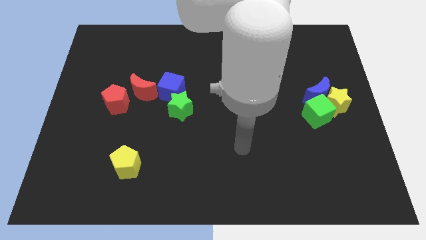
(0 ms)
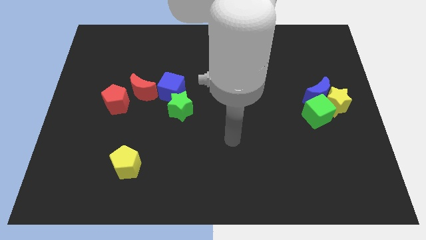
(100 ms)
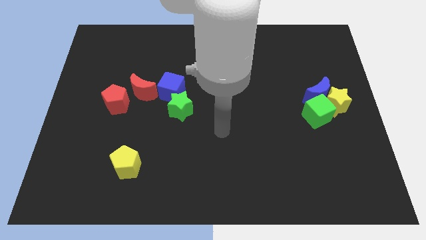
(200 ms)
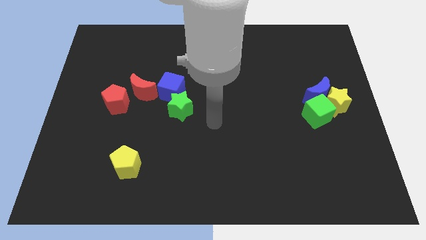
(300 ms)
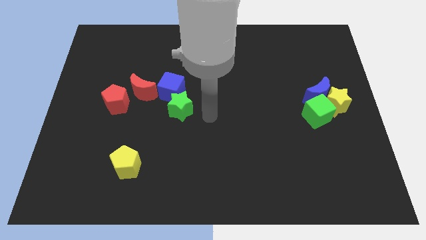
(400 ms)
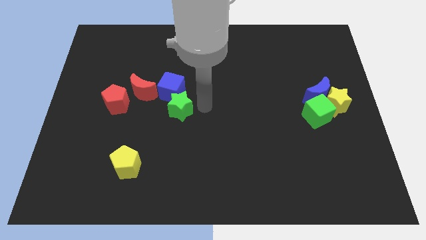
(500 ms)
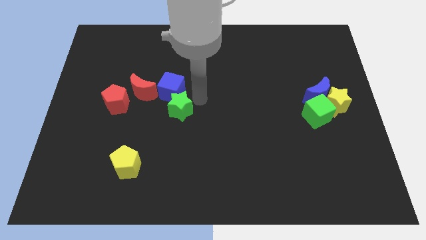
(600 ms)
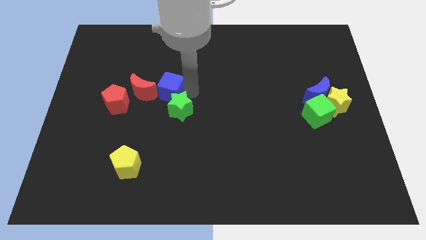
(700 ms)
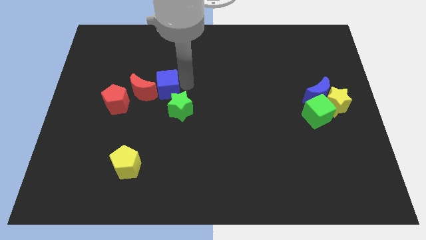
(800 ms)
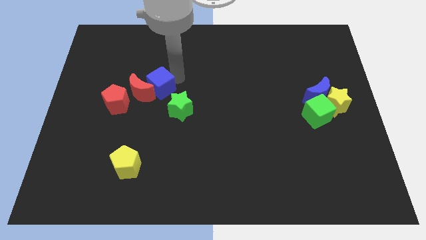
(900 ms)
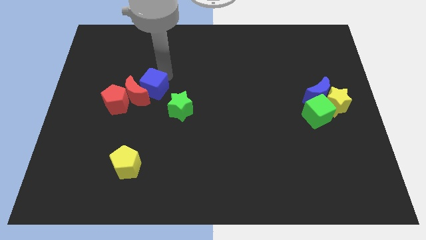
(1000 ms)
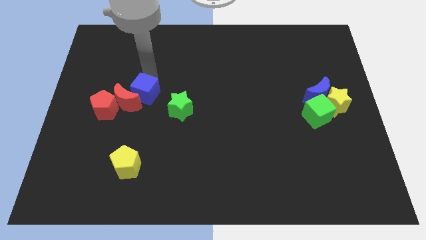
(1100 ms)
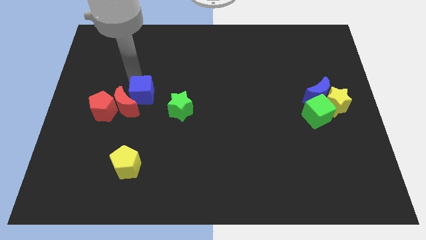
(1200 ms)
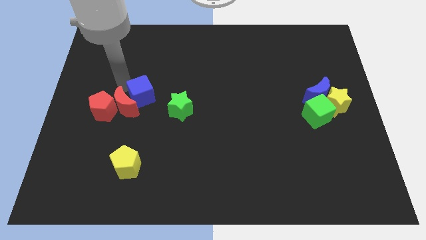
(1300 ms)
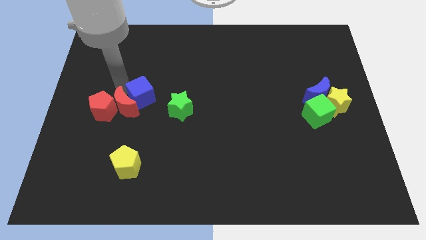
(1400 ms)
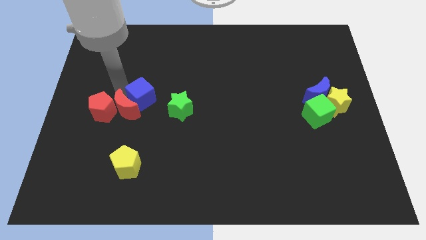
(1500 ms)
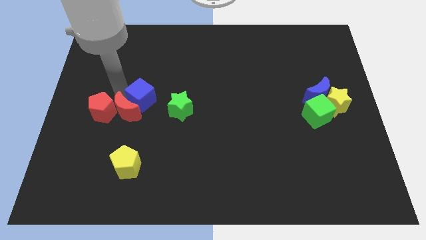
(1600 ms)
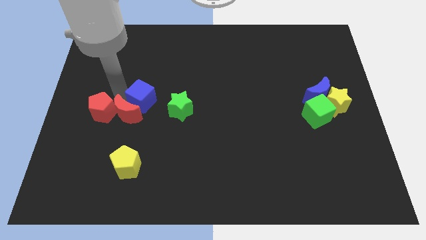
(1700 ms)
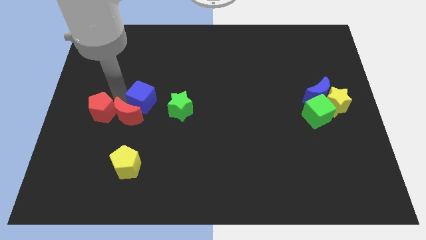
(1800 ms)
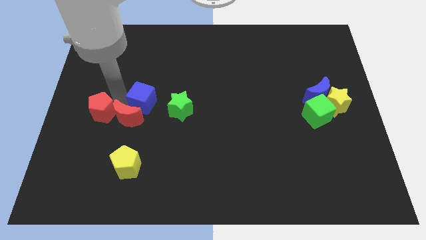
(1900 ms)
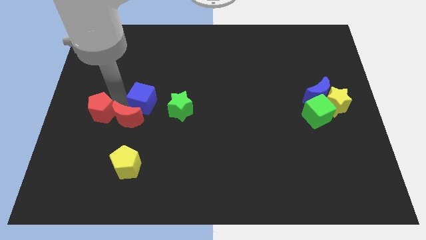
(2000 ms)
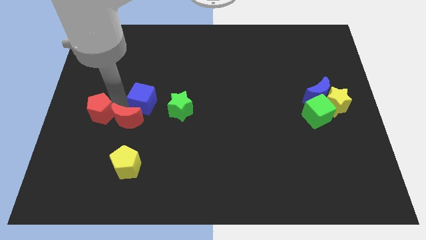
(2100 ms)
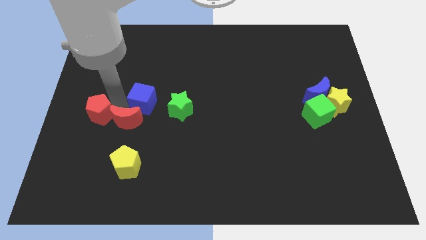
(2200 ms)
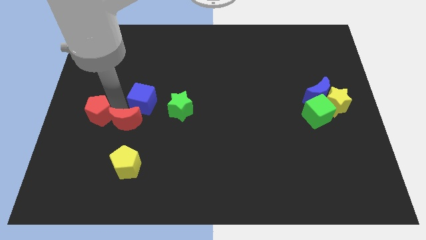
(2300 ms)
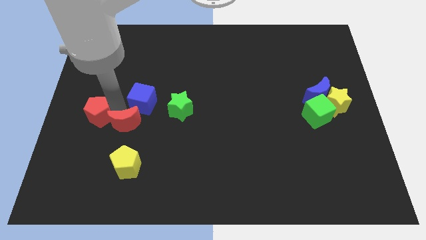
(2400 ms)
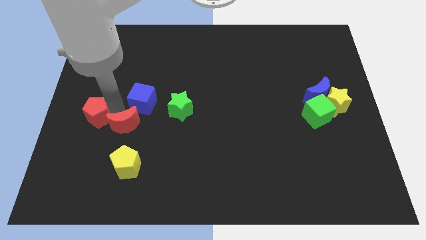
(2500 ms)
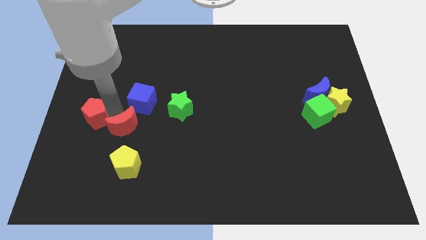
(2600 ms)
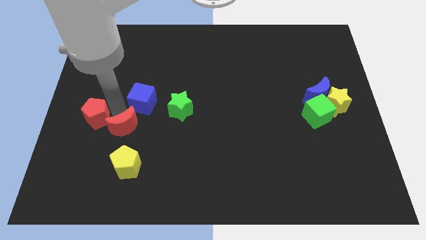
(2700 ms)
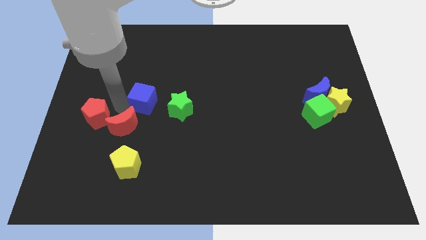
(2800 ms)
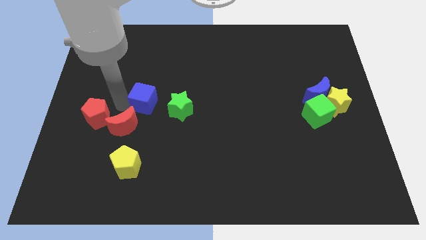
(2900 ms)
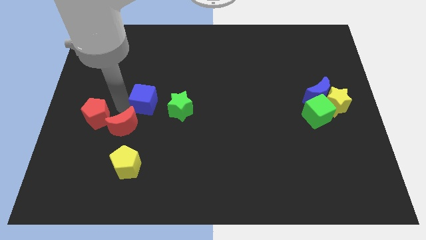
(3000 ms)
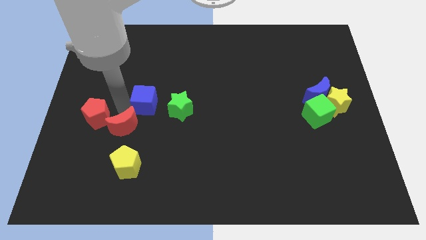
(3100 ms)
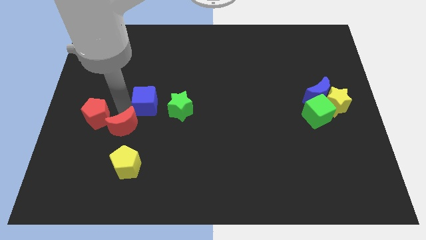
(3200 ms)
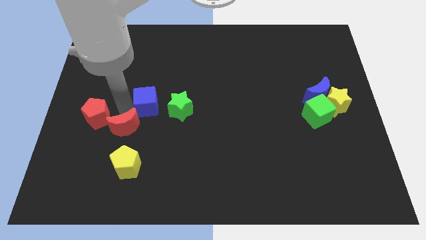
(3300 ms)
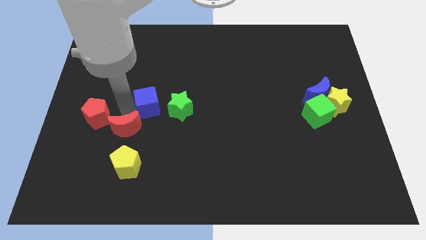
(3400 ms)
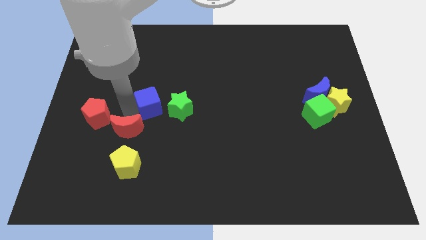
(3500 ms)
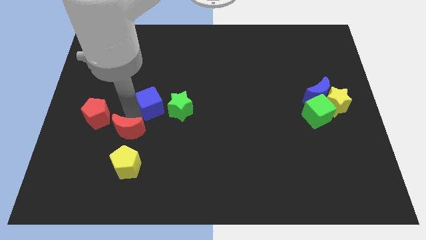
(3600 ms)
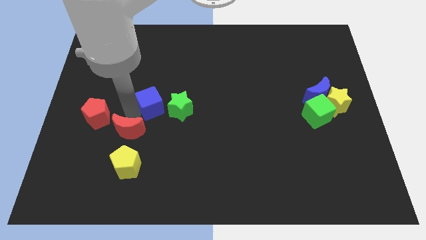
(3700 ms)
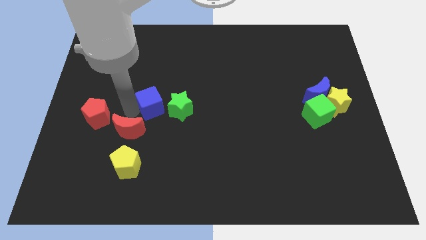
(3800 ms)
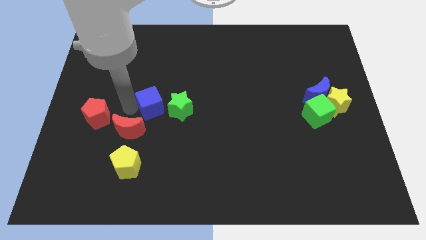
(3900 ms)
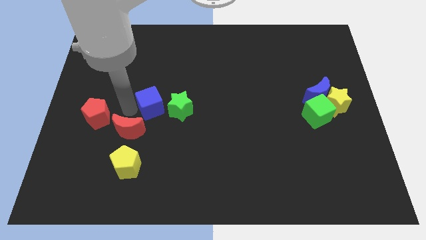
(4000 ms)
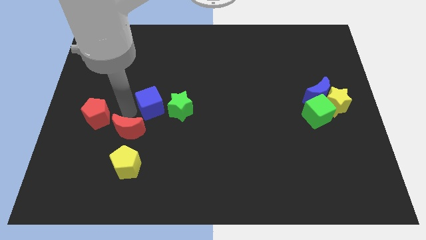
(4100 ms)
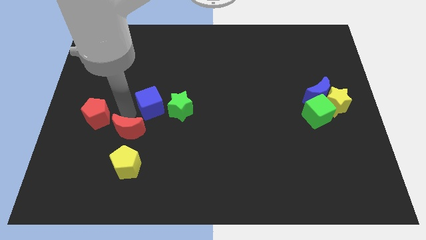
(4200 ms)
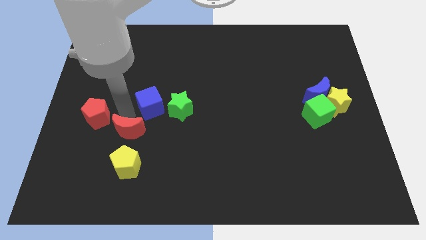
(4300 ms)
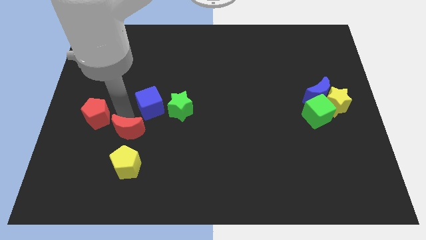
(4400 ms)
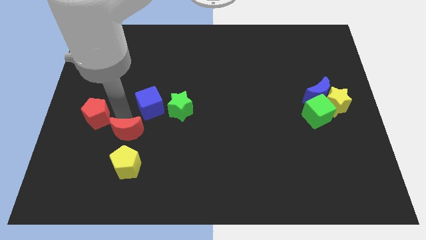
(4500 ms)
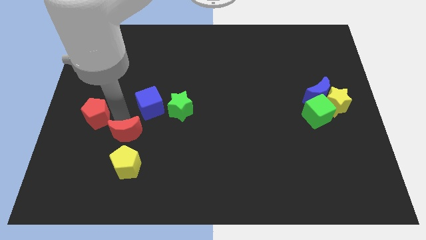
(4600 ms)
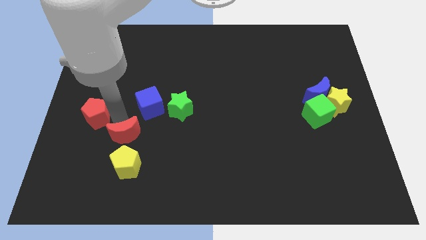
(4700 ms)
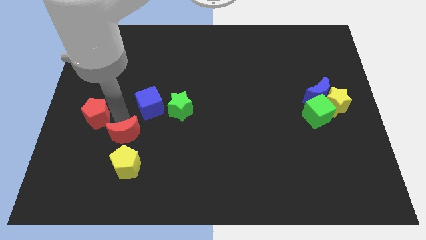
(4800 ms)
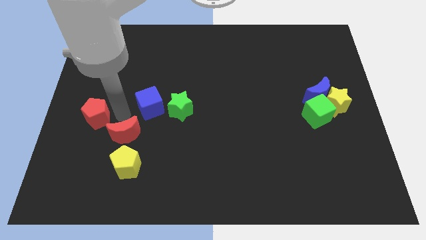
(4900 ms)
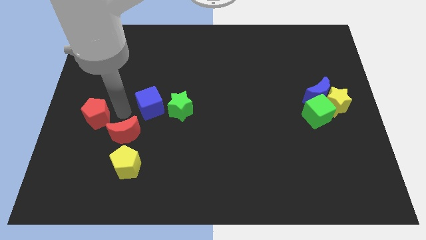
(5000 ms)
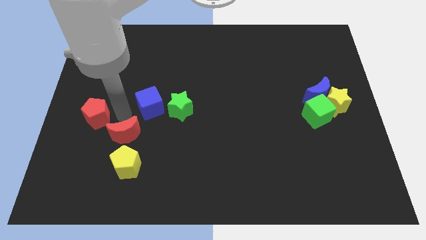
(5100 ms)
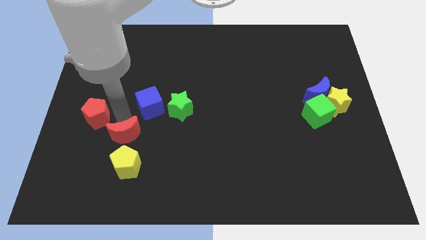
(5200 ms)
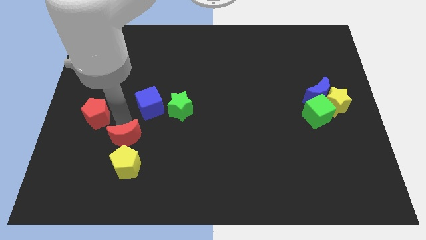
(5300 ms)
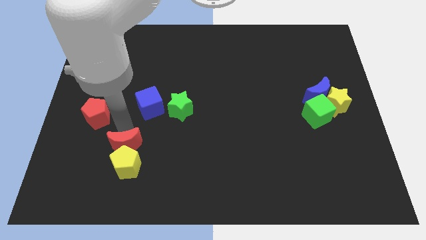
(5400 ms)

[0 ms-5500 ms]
push the red moon close to the yellow pentagon

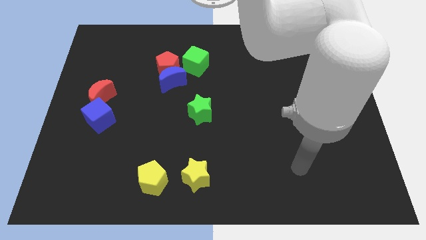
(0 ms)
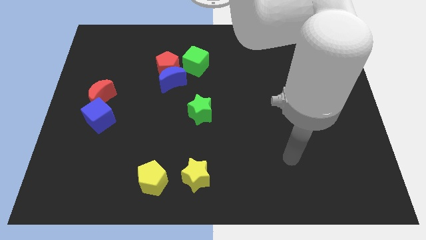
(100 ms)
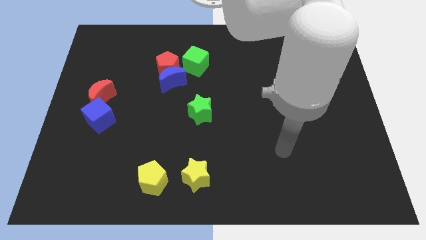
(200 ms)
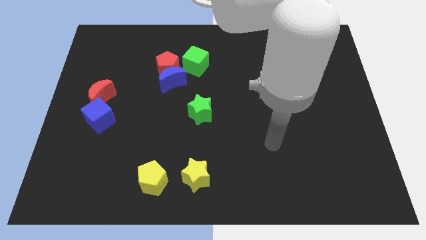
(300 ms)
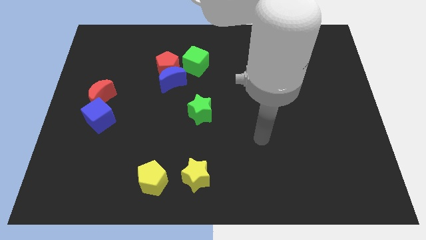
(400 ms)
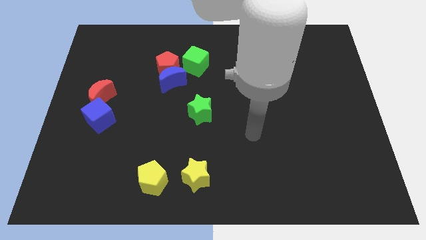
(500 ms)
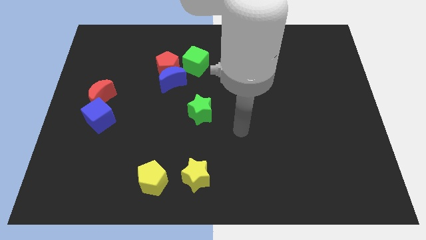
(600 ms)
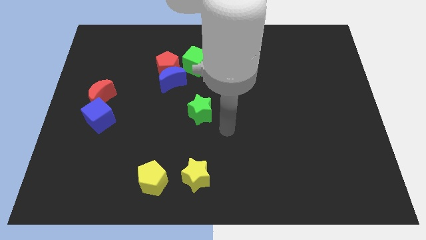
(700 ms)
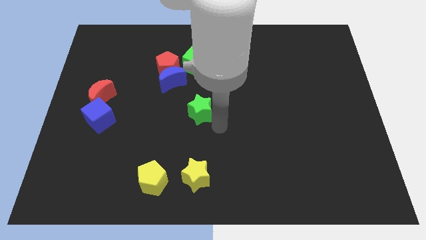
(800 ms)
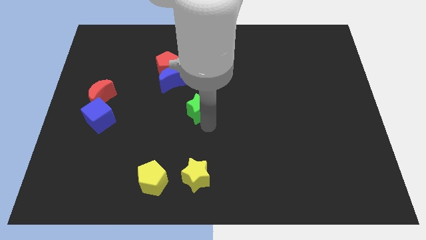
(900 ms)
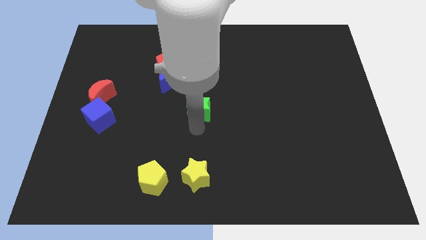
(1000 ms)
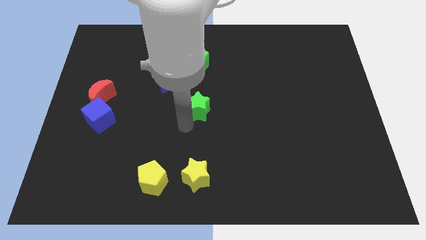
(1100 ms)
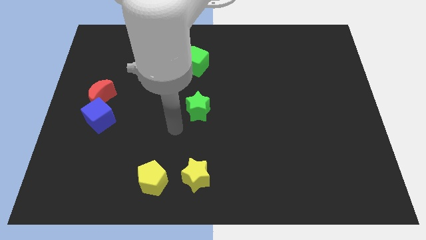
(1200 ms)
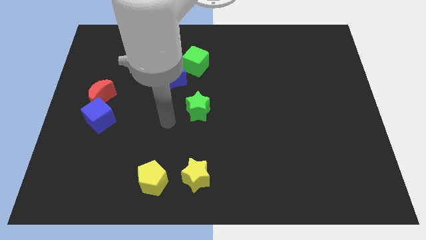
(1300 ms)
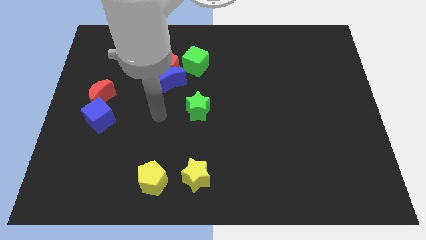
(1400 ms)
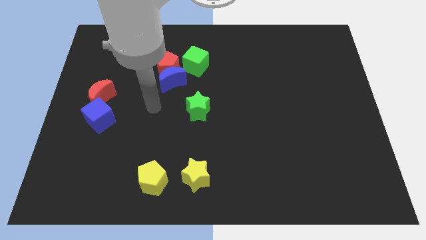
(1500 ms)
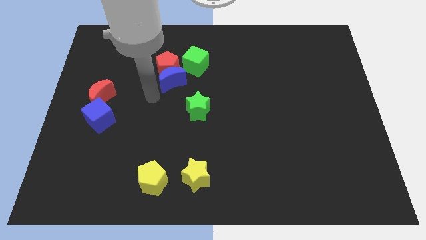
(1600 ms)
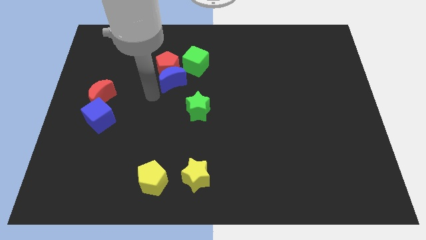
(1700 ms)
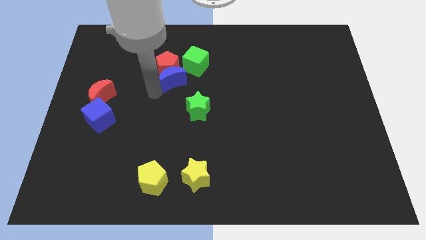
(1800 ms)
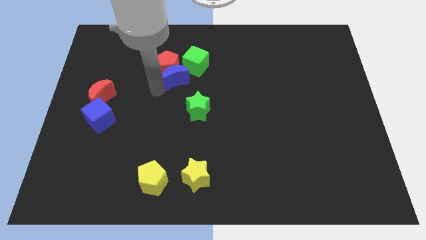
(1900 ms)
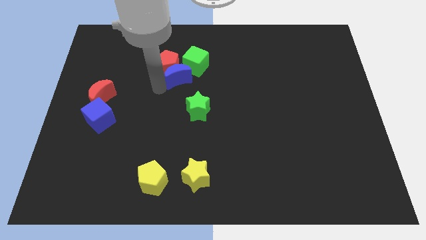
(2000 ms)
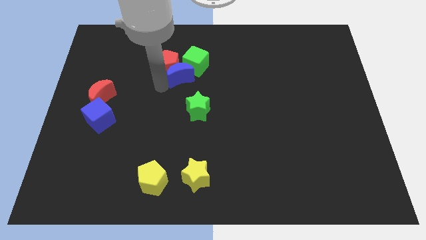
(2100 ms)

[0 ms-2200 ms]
put the blue moon towards the green cube

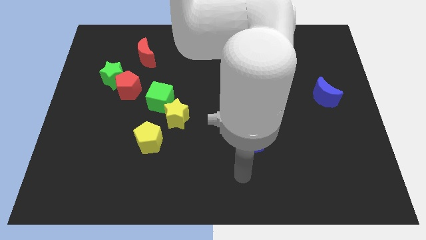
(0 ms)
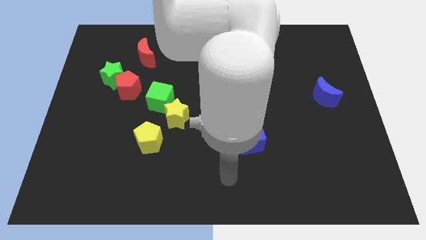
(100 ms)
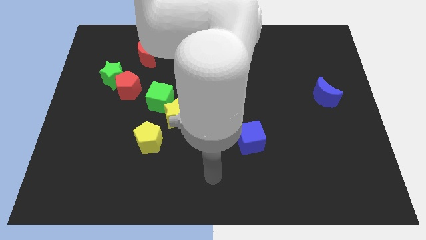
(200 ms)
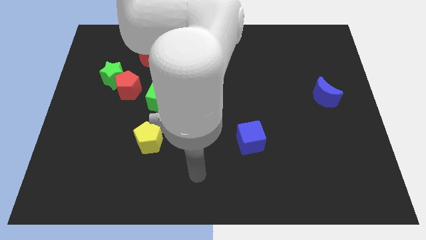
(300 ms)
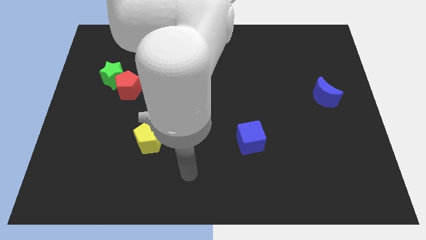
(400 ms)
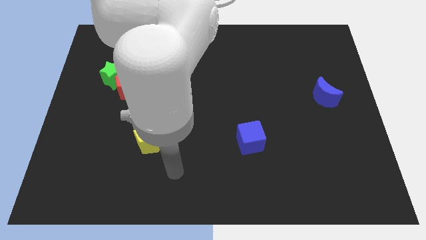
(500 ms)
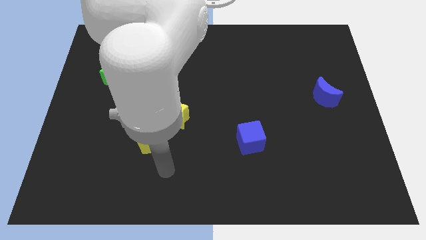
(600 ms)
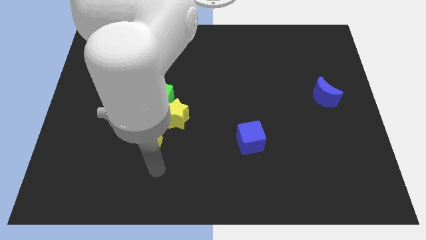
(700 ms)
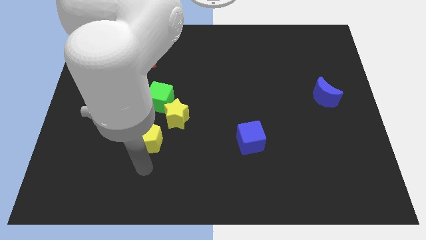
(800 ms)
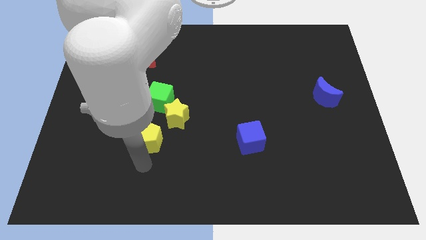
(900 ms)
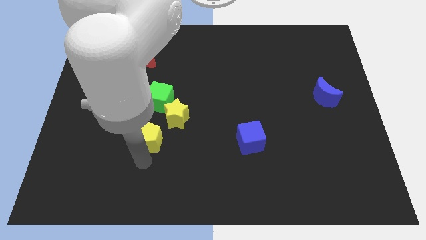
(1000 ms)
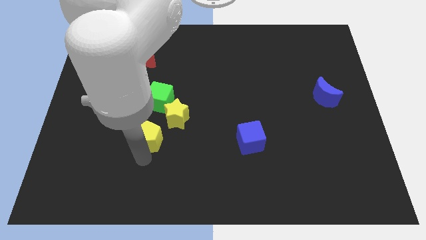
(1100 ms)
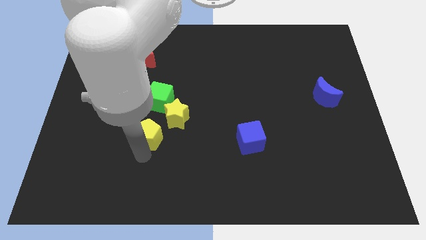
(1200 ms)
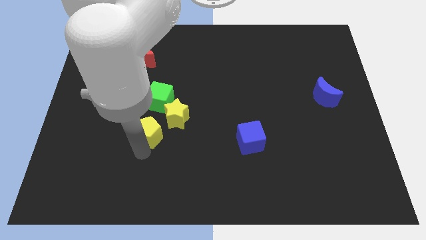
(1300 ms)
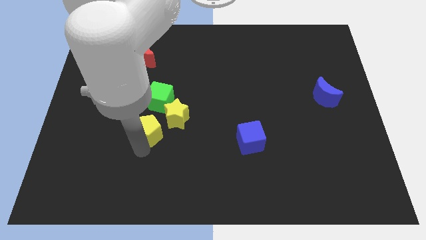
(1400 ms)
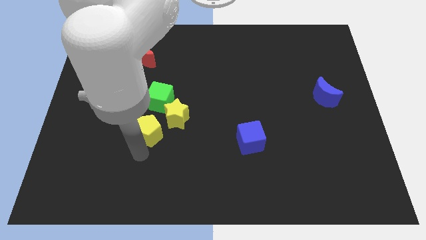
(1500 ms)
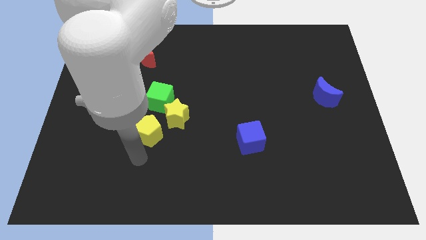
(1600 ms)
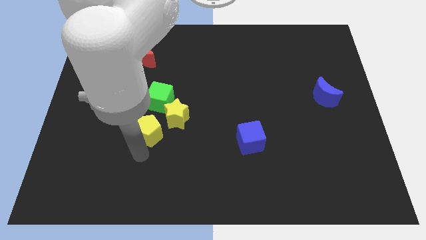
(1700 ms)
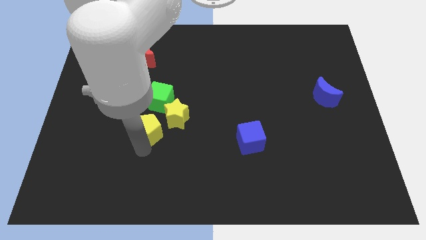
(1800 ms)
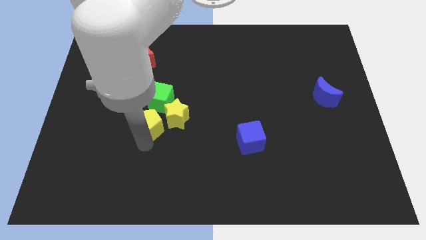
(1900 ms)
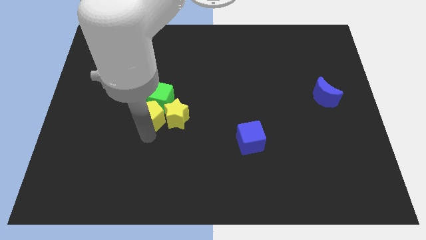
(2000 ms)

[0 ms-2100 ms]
slide the yellow pentagon next to the green cube
